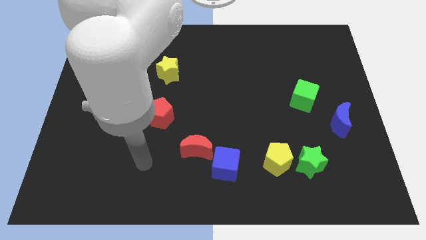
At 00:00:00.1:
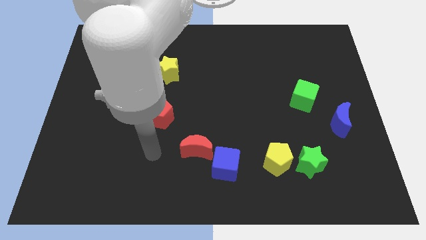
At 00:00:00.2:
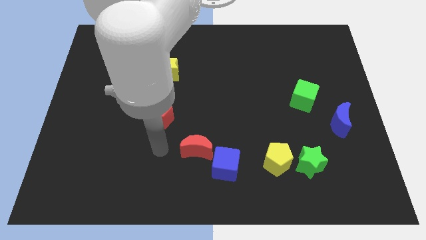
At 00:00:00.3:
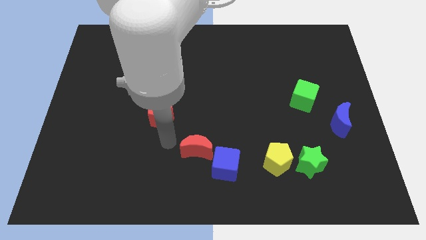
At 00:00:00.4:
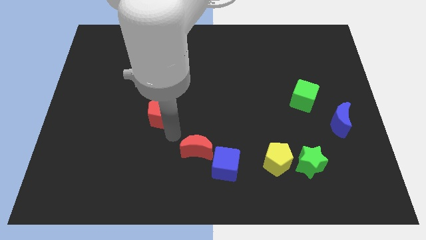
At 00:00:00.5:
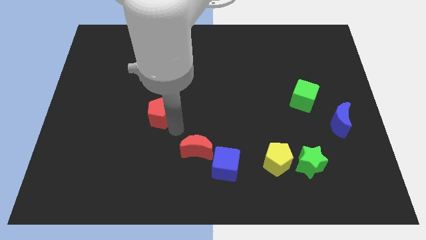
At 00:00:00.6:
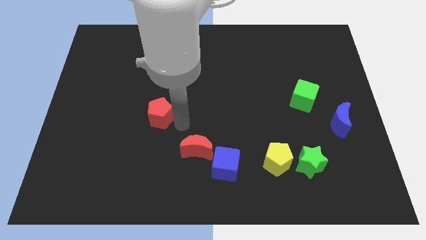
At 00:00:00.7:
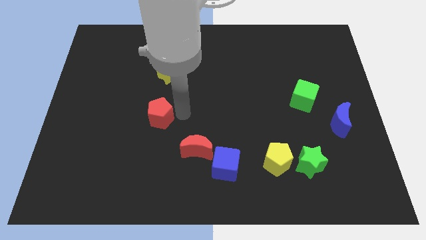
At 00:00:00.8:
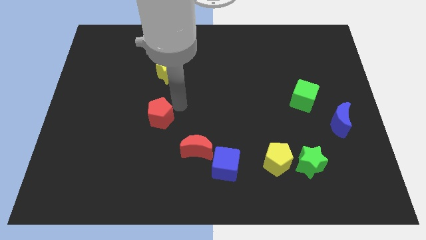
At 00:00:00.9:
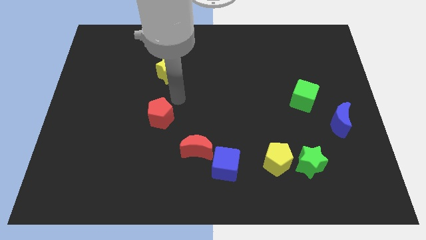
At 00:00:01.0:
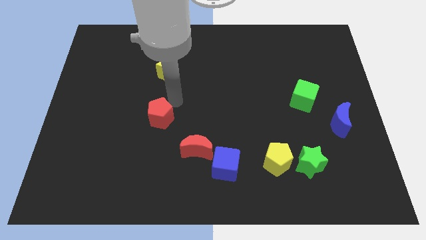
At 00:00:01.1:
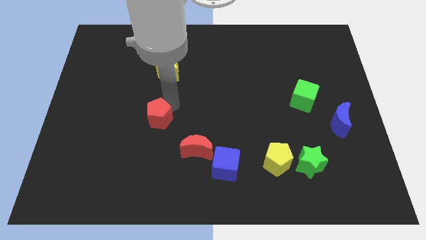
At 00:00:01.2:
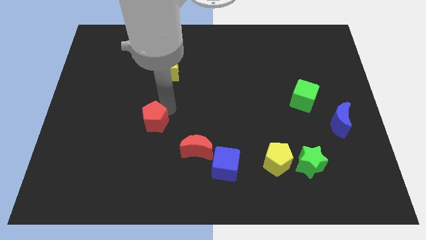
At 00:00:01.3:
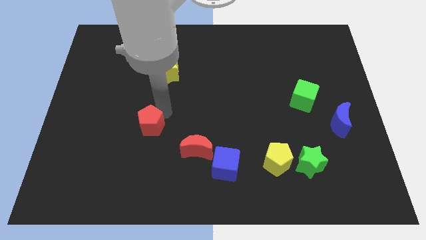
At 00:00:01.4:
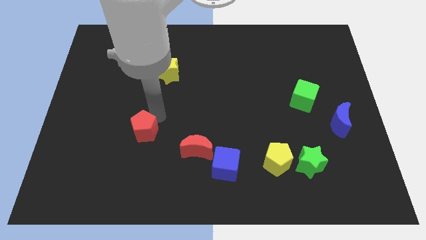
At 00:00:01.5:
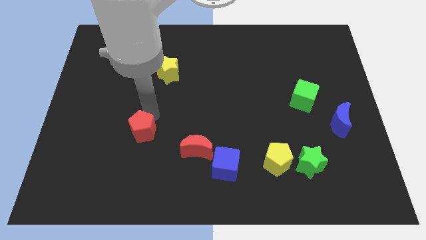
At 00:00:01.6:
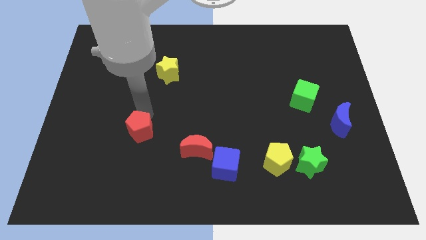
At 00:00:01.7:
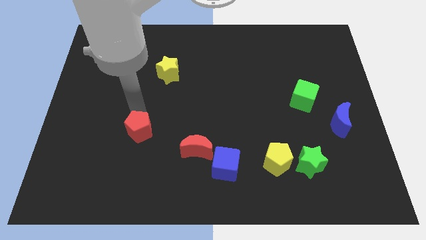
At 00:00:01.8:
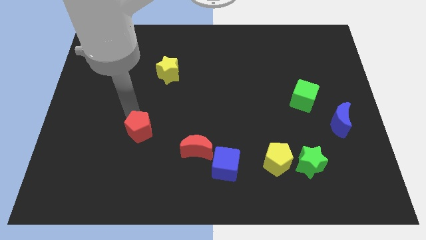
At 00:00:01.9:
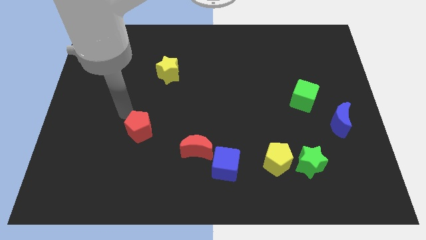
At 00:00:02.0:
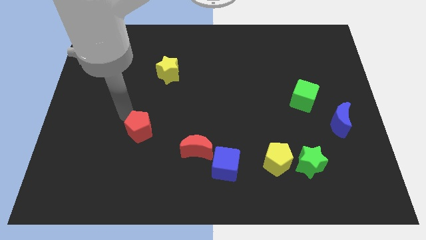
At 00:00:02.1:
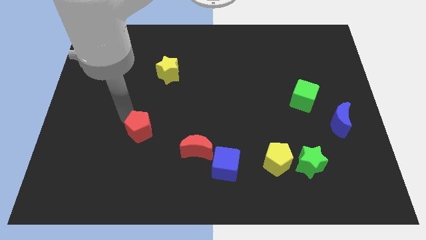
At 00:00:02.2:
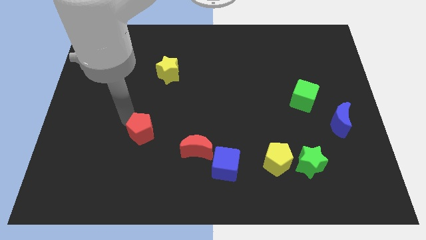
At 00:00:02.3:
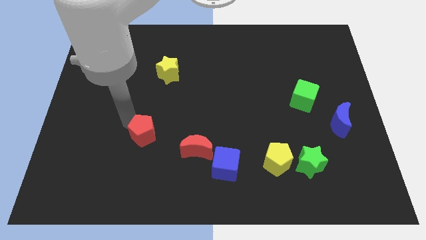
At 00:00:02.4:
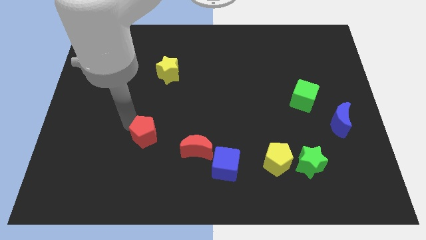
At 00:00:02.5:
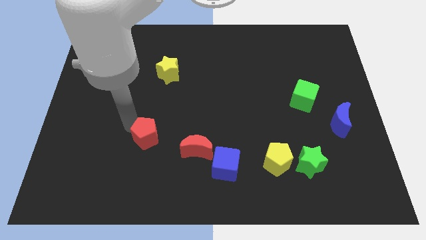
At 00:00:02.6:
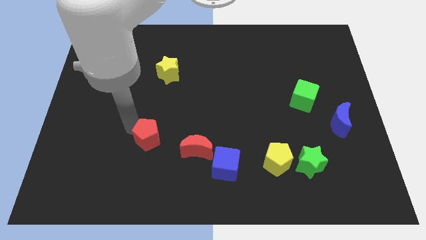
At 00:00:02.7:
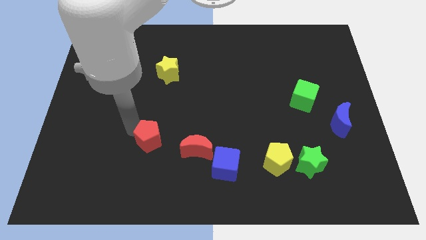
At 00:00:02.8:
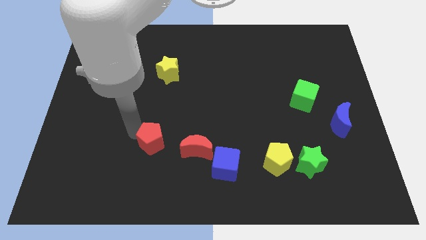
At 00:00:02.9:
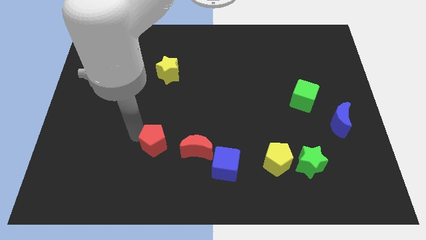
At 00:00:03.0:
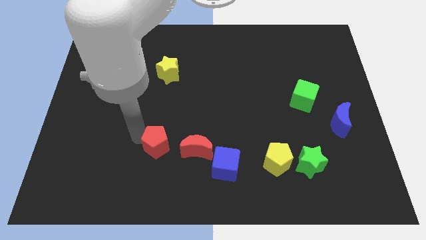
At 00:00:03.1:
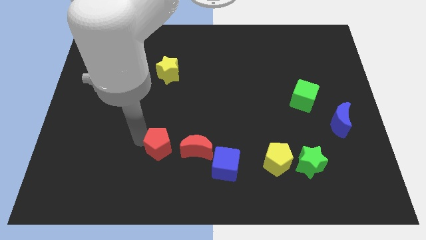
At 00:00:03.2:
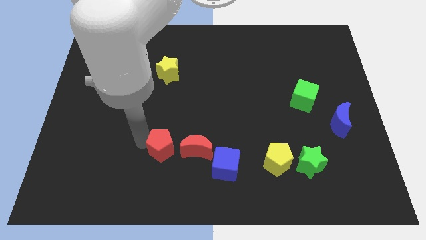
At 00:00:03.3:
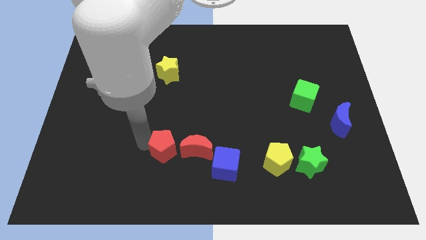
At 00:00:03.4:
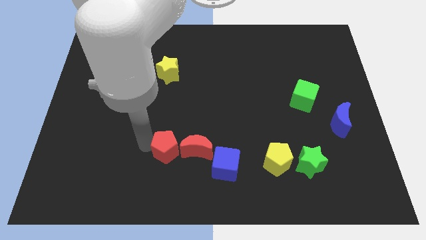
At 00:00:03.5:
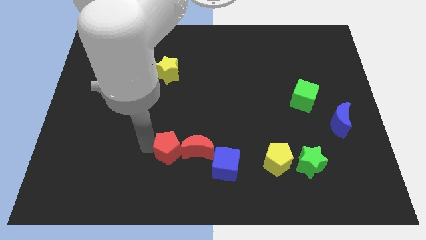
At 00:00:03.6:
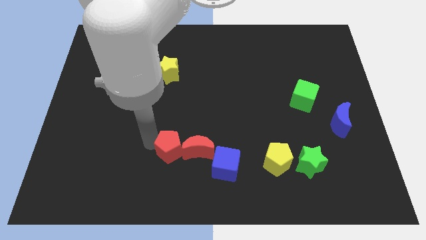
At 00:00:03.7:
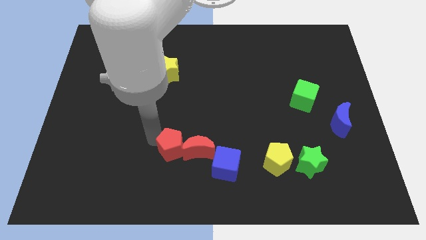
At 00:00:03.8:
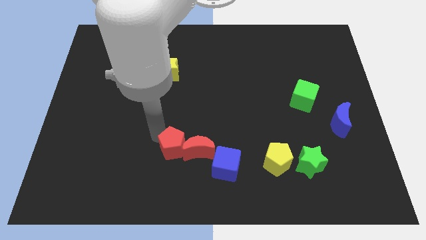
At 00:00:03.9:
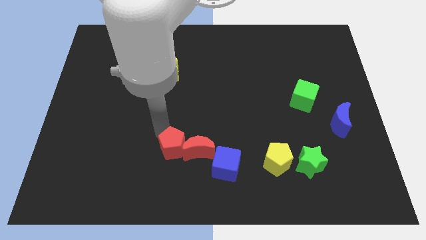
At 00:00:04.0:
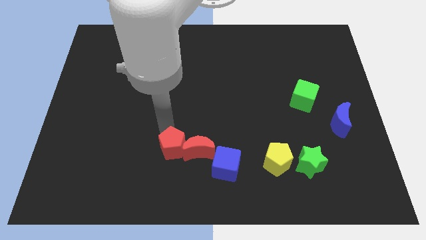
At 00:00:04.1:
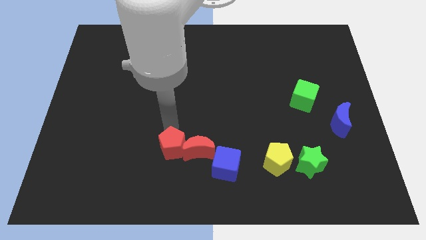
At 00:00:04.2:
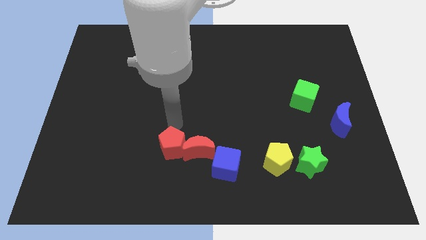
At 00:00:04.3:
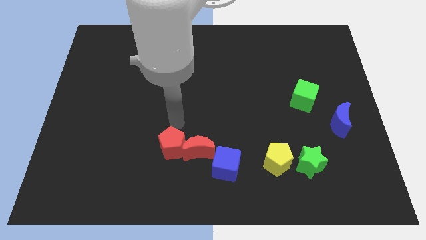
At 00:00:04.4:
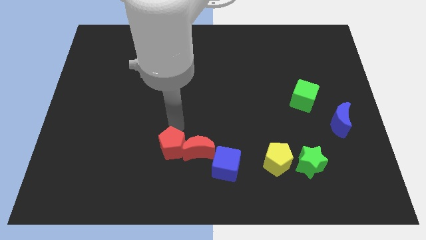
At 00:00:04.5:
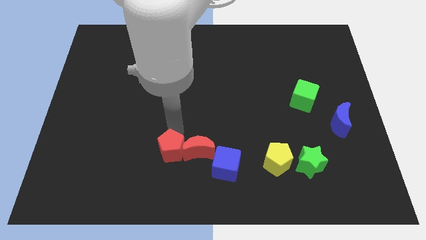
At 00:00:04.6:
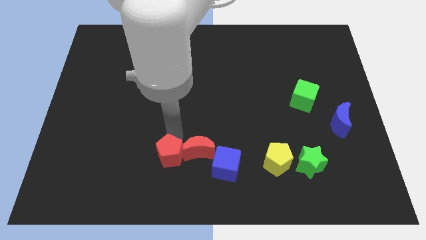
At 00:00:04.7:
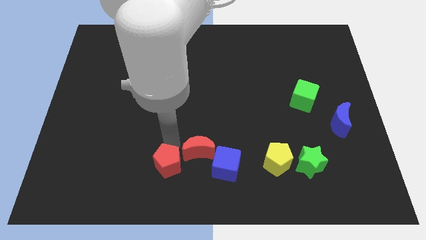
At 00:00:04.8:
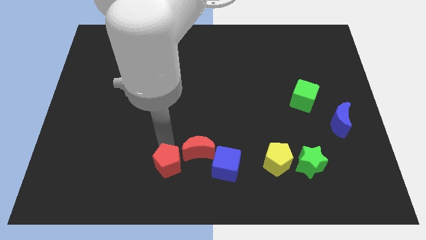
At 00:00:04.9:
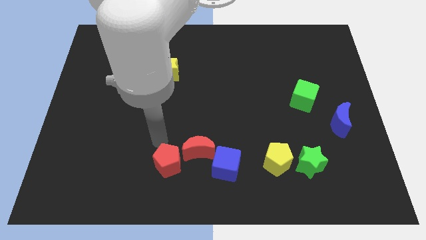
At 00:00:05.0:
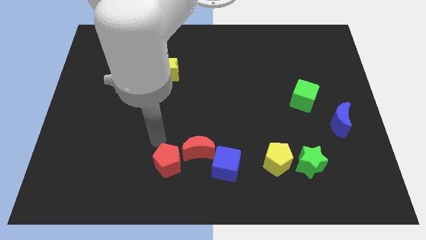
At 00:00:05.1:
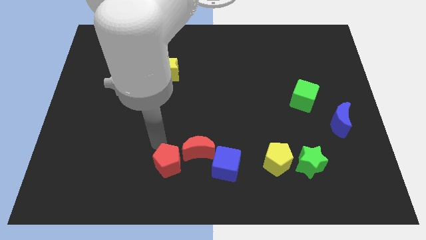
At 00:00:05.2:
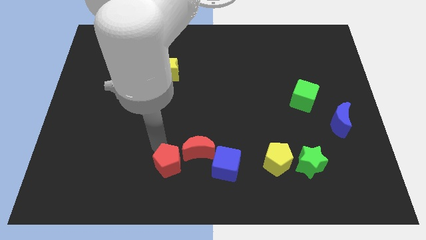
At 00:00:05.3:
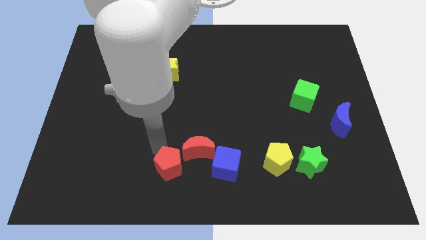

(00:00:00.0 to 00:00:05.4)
slide the red pentagon to the bottom
